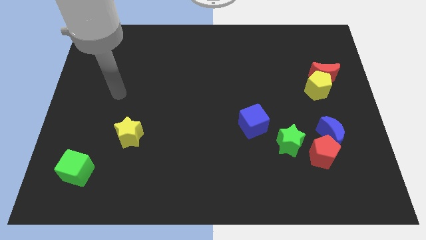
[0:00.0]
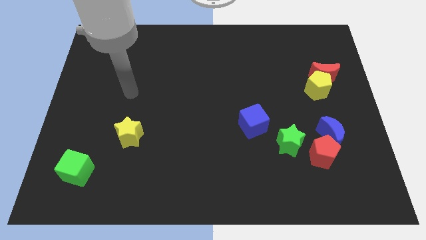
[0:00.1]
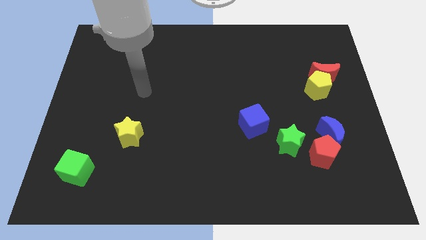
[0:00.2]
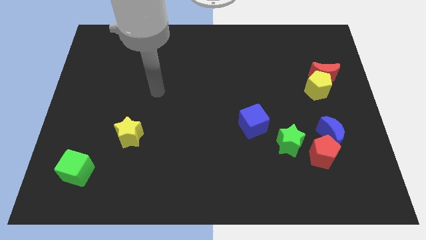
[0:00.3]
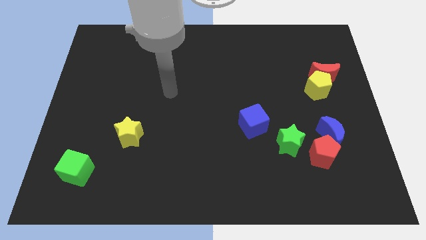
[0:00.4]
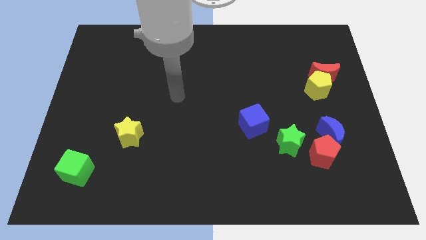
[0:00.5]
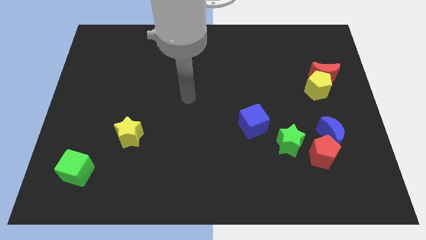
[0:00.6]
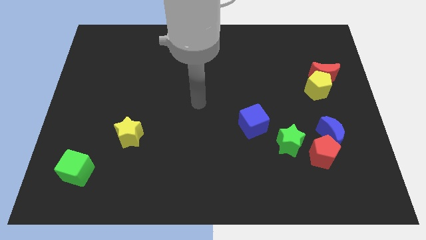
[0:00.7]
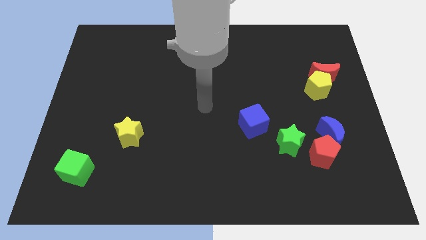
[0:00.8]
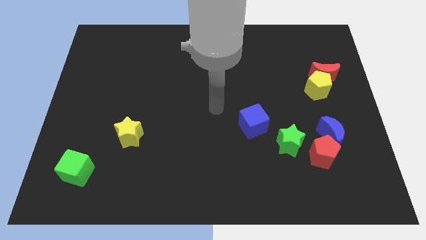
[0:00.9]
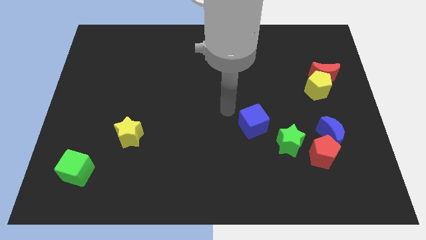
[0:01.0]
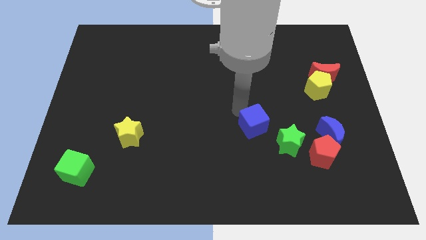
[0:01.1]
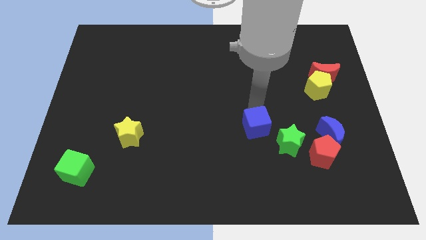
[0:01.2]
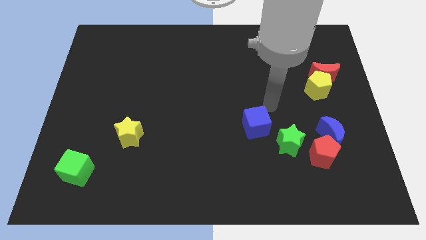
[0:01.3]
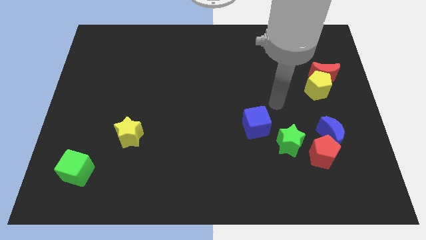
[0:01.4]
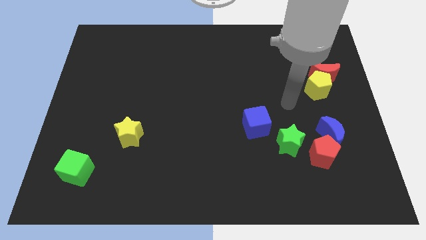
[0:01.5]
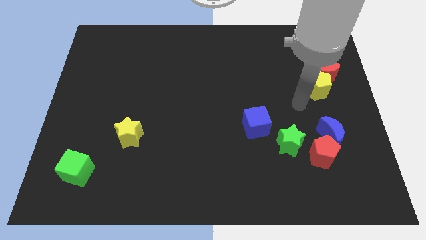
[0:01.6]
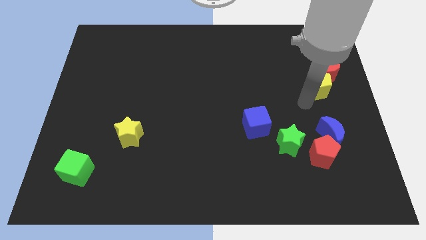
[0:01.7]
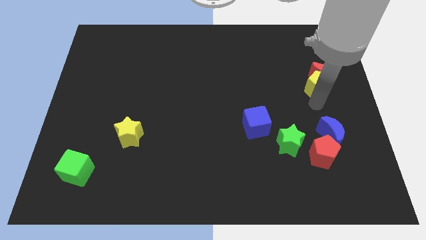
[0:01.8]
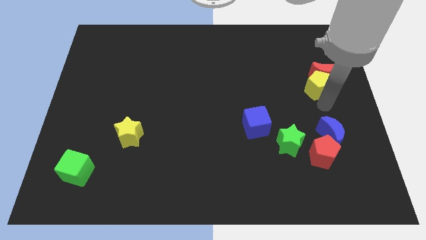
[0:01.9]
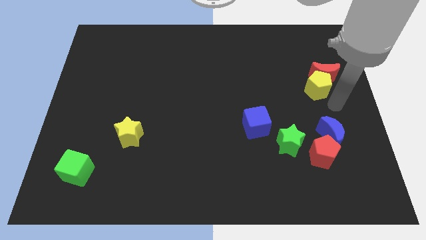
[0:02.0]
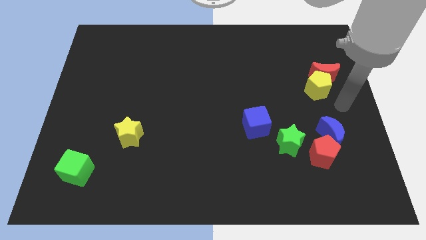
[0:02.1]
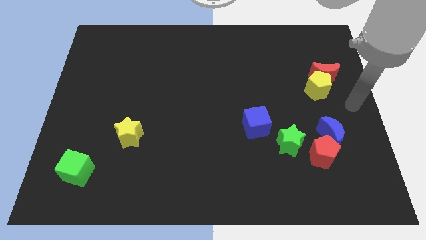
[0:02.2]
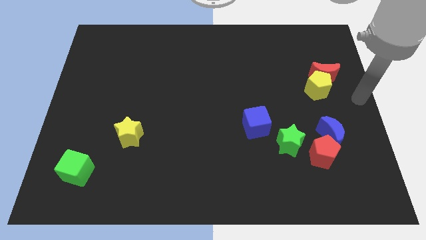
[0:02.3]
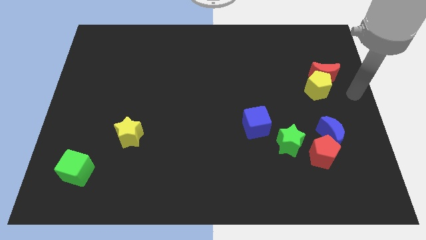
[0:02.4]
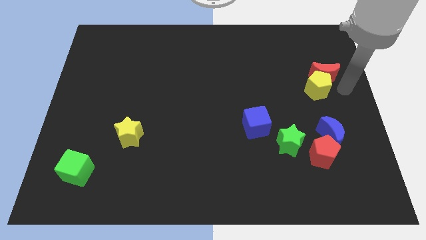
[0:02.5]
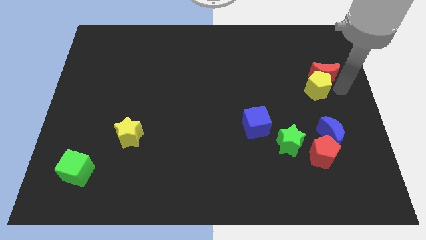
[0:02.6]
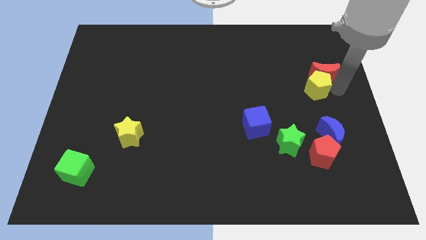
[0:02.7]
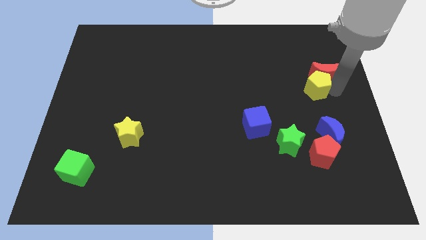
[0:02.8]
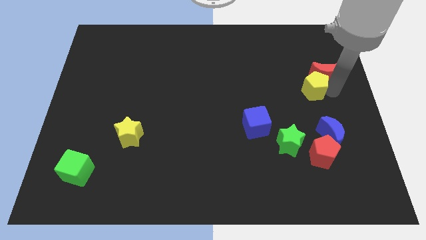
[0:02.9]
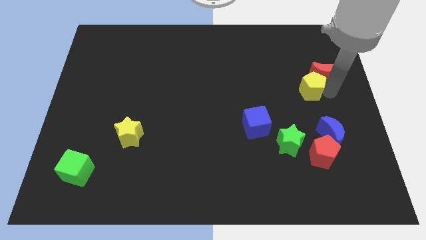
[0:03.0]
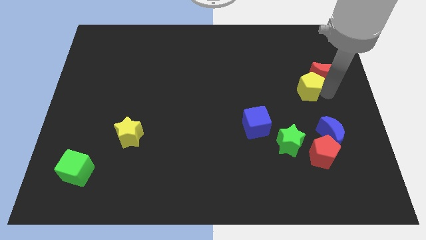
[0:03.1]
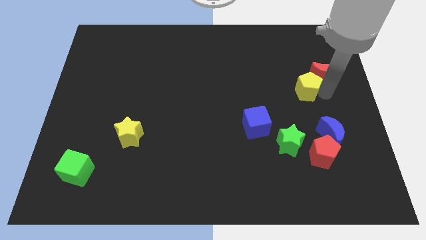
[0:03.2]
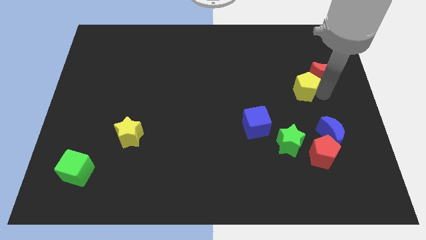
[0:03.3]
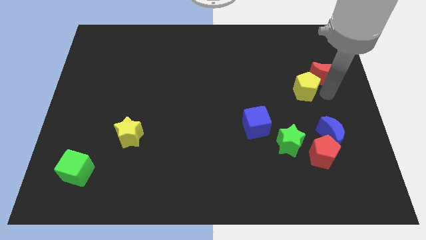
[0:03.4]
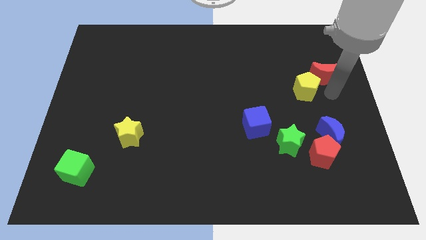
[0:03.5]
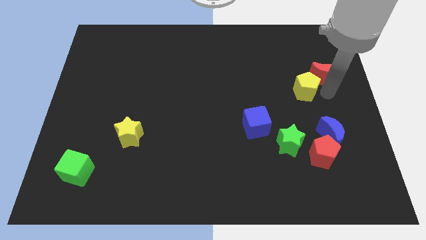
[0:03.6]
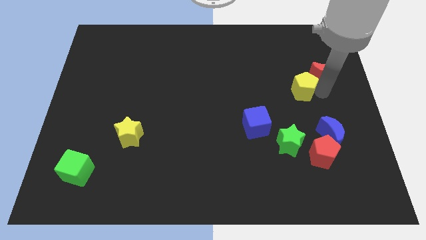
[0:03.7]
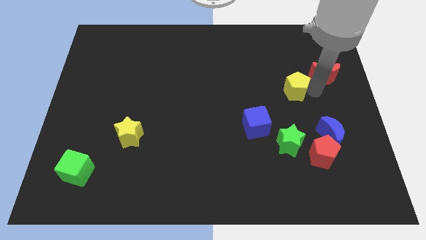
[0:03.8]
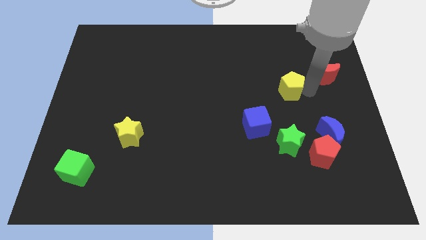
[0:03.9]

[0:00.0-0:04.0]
slightly push the yellow pentagon to the left

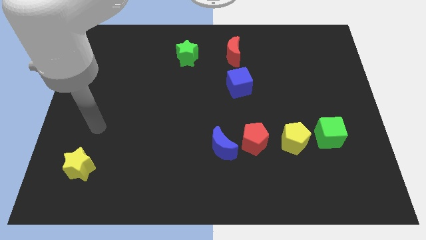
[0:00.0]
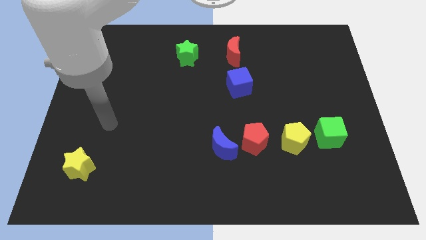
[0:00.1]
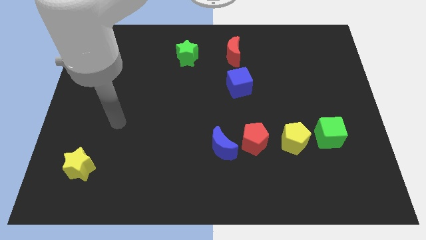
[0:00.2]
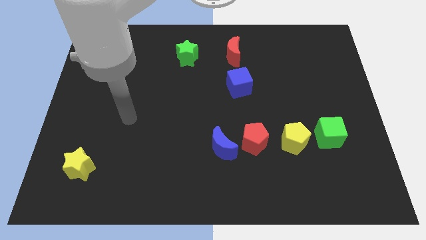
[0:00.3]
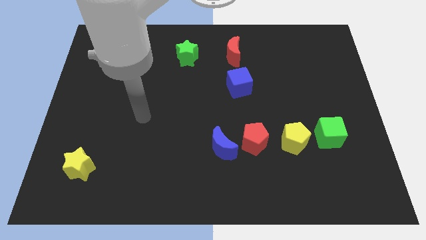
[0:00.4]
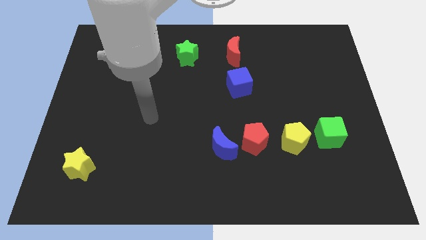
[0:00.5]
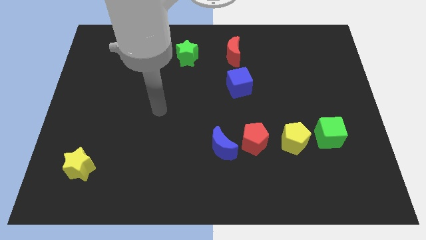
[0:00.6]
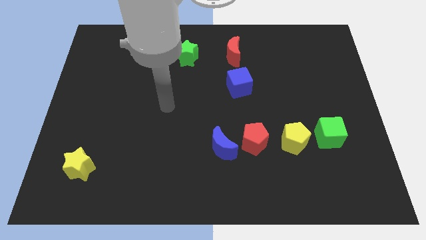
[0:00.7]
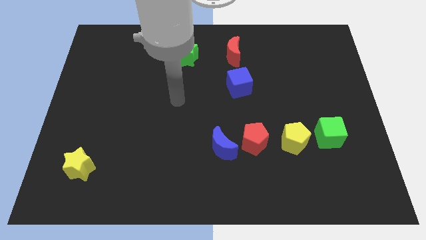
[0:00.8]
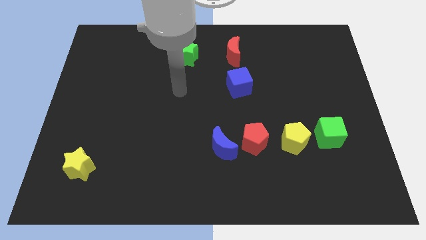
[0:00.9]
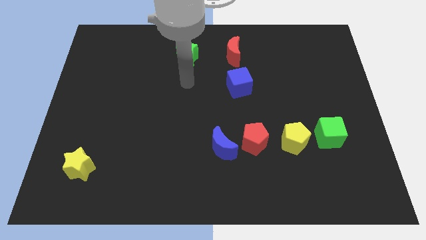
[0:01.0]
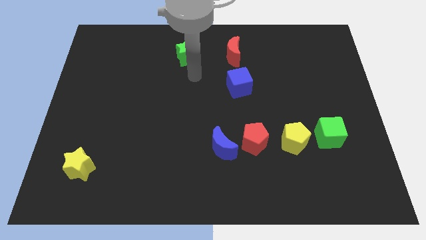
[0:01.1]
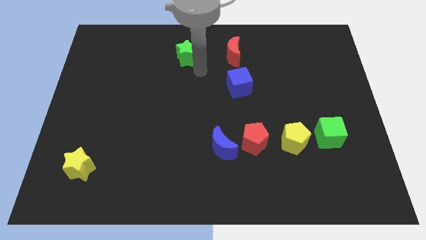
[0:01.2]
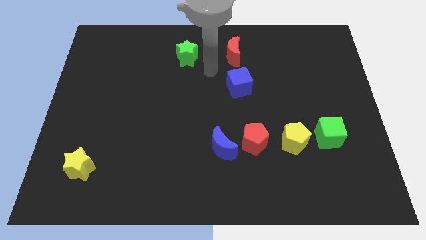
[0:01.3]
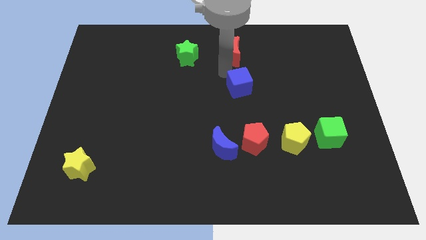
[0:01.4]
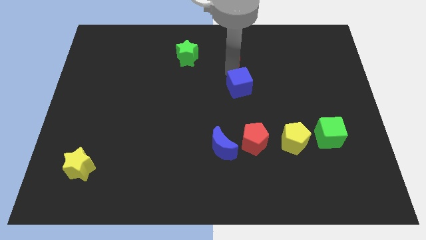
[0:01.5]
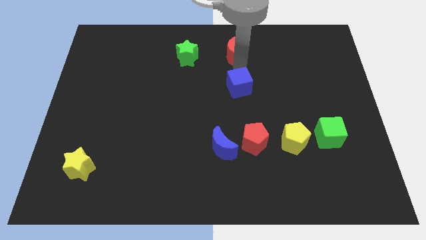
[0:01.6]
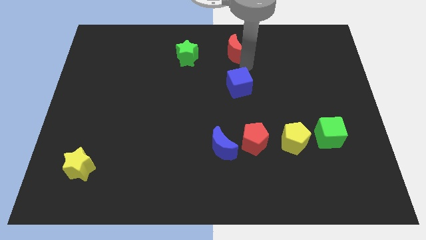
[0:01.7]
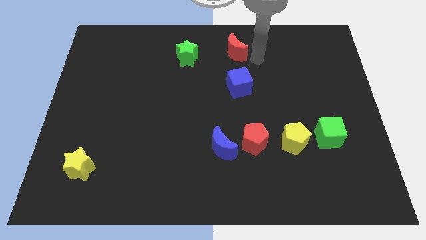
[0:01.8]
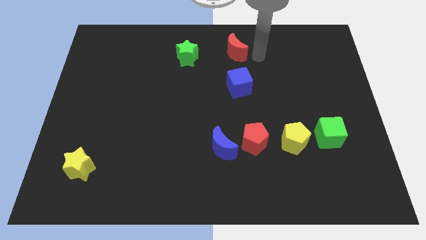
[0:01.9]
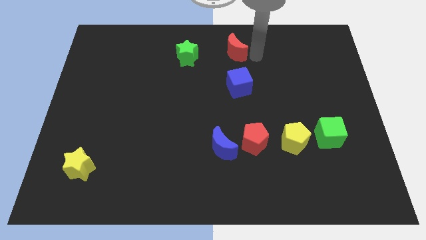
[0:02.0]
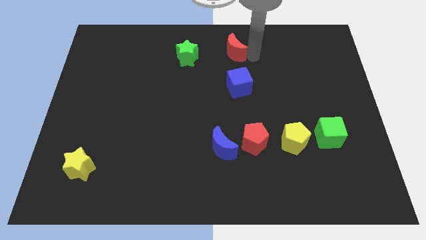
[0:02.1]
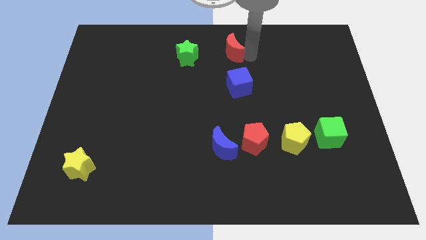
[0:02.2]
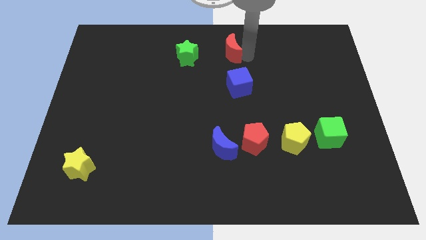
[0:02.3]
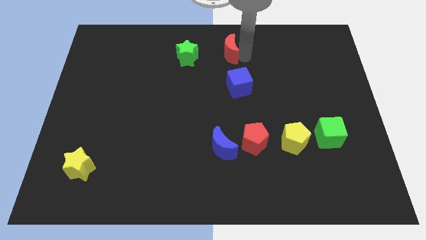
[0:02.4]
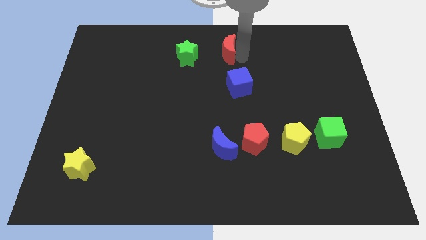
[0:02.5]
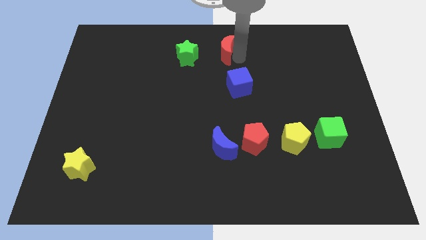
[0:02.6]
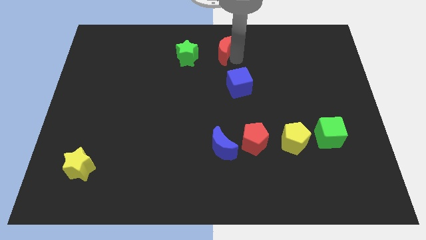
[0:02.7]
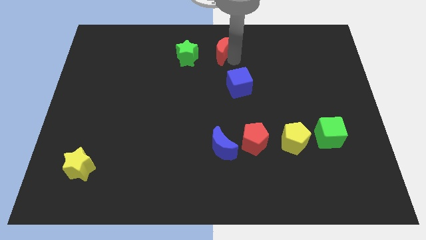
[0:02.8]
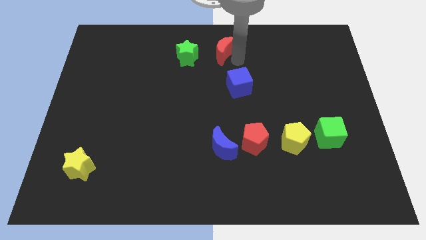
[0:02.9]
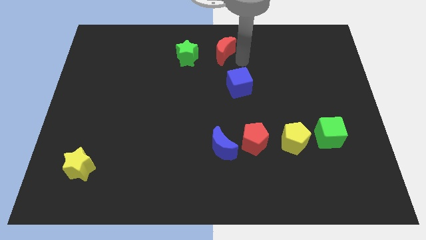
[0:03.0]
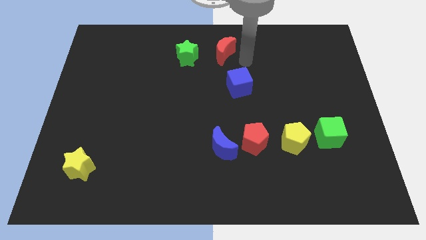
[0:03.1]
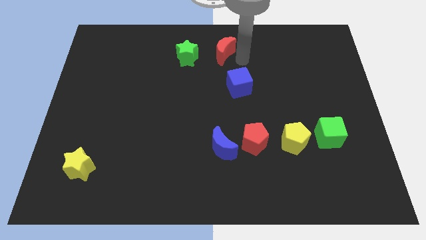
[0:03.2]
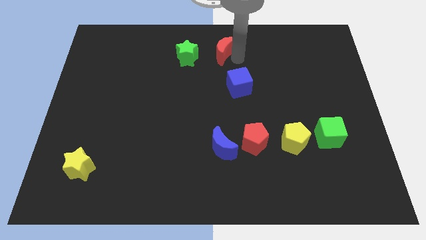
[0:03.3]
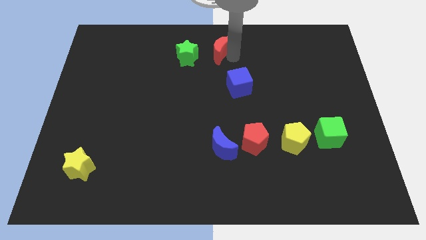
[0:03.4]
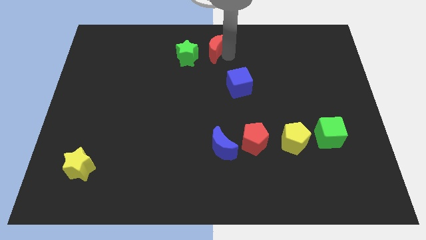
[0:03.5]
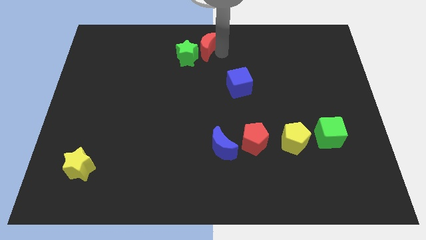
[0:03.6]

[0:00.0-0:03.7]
move the red moon to the left slightly

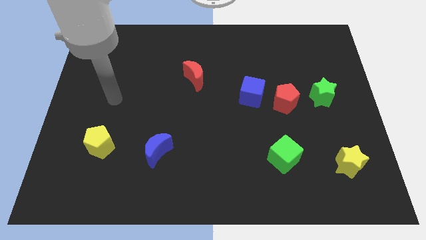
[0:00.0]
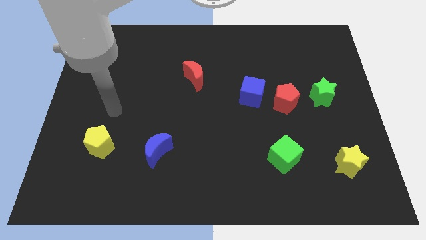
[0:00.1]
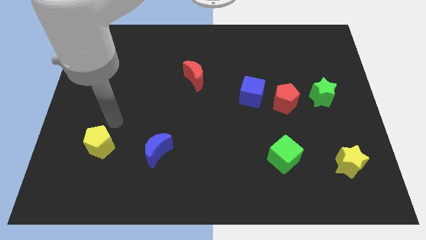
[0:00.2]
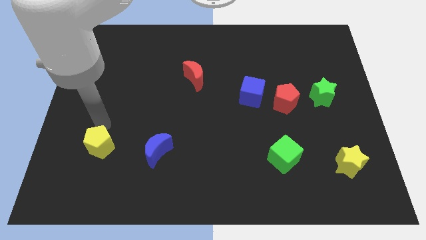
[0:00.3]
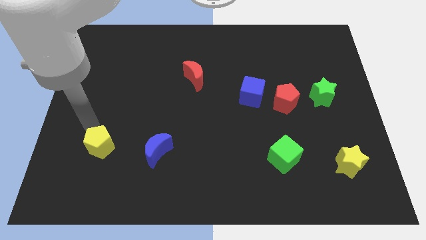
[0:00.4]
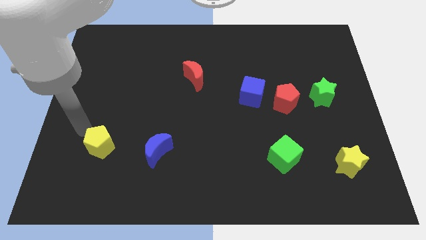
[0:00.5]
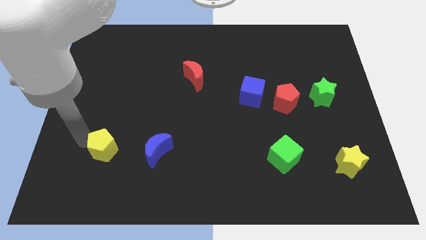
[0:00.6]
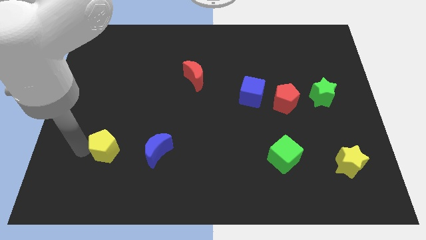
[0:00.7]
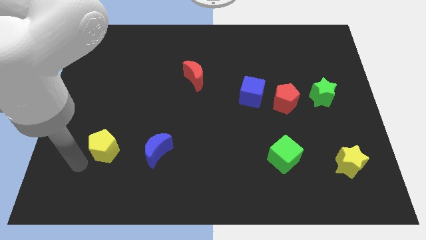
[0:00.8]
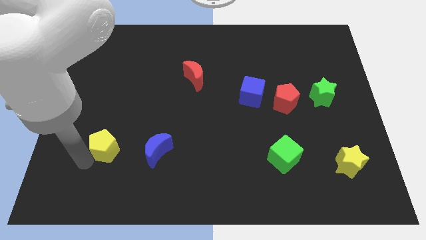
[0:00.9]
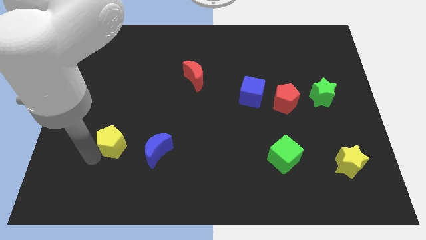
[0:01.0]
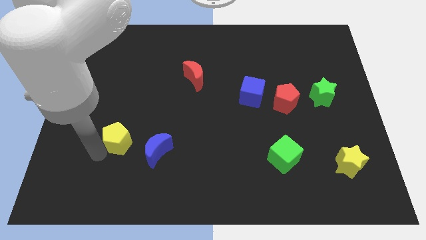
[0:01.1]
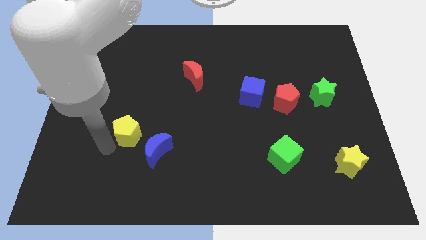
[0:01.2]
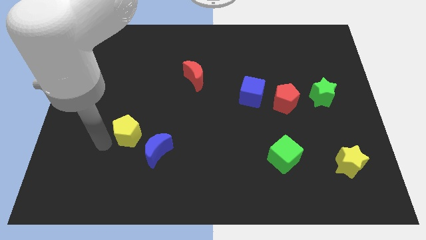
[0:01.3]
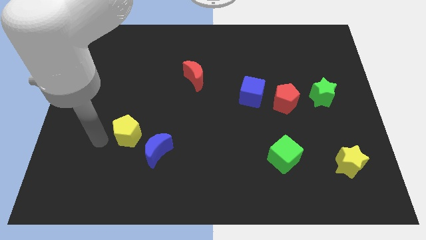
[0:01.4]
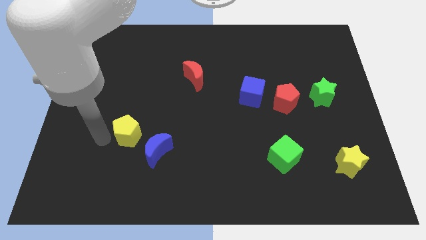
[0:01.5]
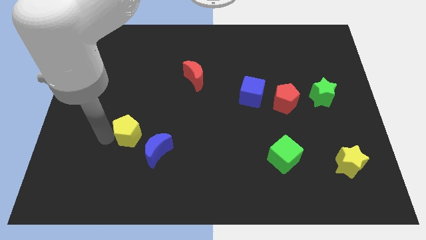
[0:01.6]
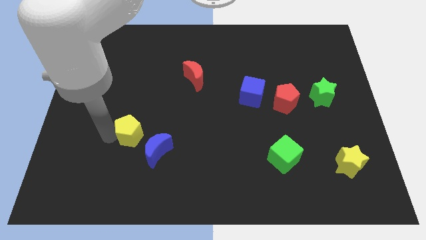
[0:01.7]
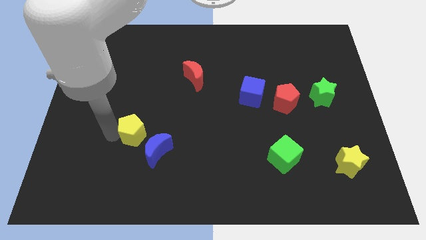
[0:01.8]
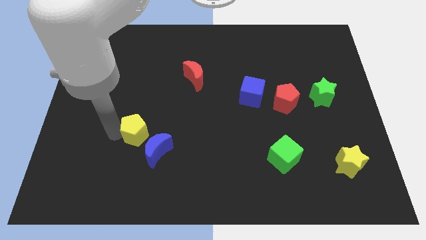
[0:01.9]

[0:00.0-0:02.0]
move the yellow pentagon somewhat to the right
